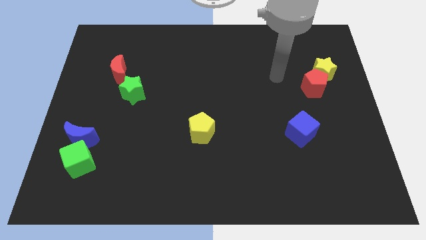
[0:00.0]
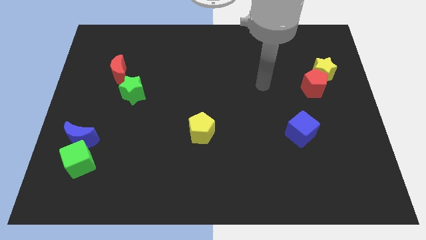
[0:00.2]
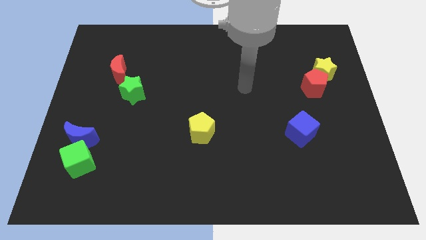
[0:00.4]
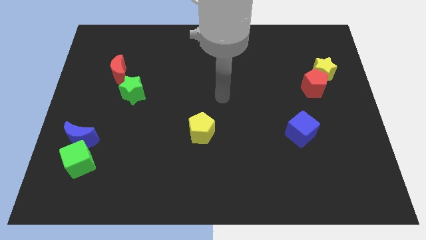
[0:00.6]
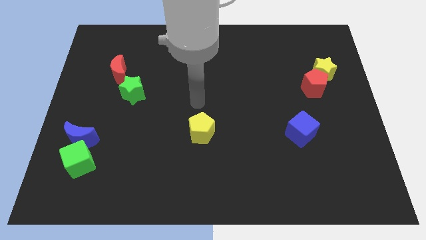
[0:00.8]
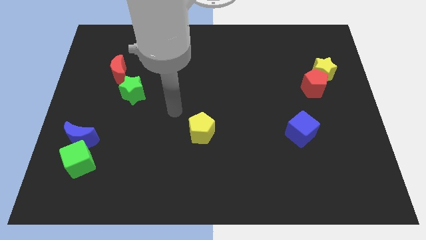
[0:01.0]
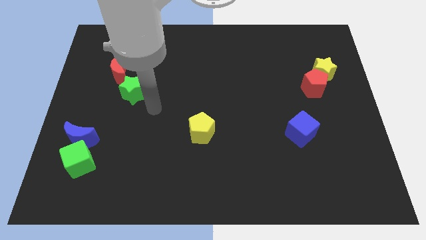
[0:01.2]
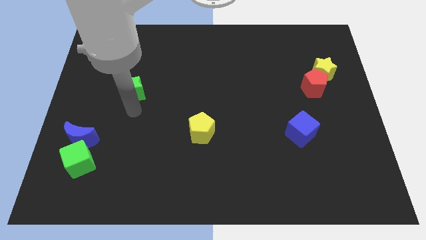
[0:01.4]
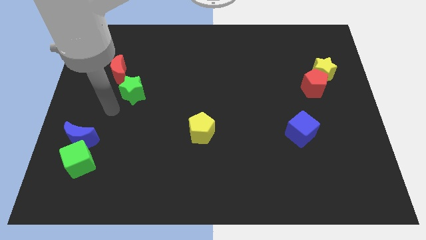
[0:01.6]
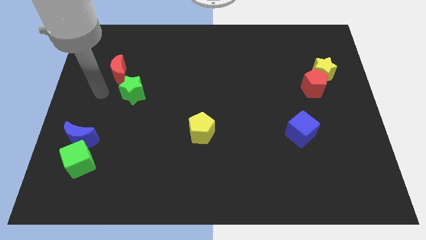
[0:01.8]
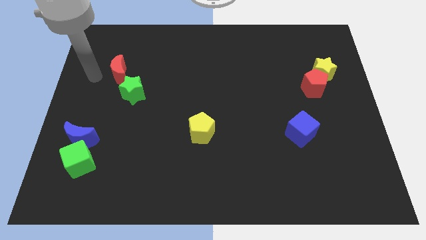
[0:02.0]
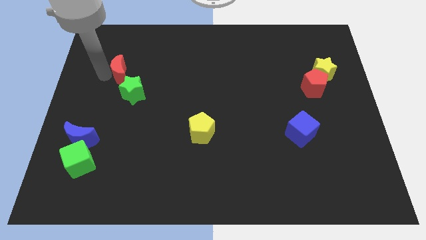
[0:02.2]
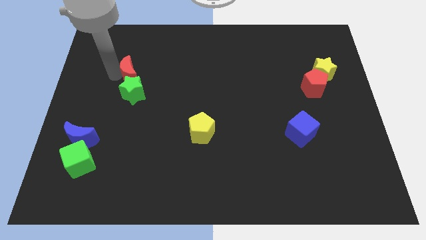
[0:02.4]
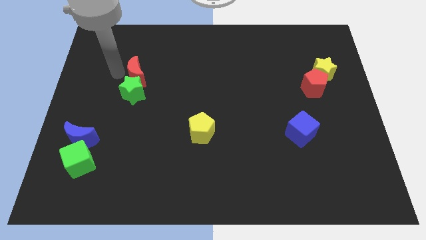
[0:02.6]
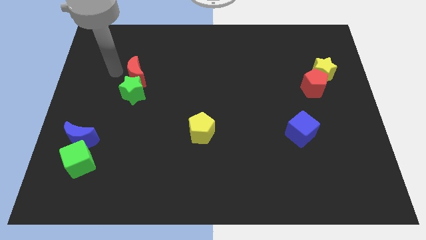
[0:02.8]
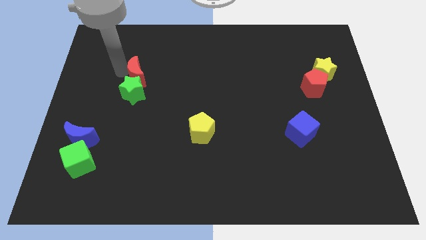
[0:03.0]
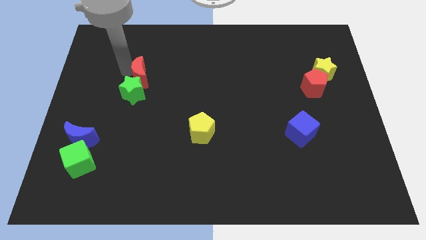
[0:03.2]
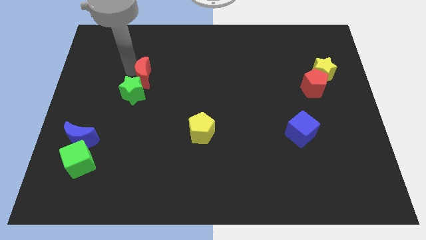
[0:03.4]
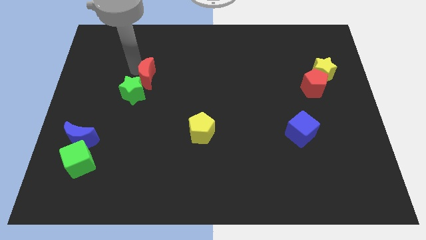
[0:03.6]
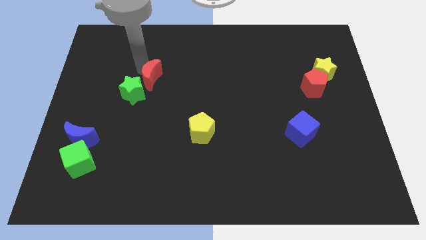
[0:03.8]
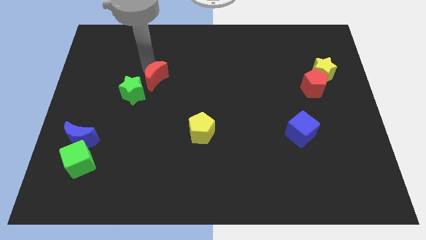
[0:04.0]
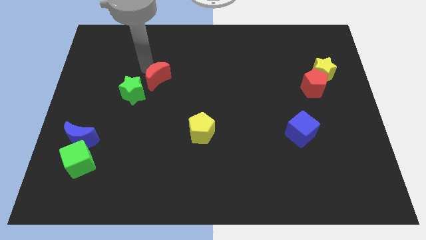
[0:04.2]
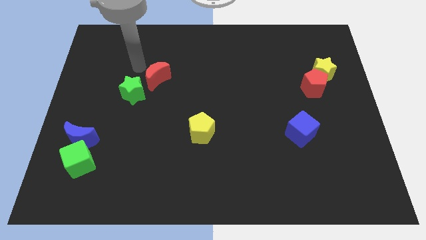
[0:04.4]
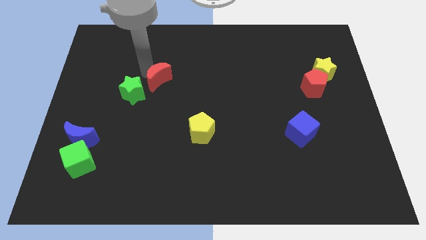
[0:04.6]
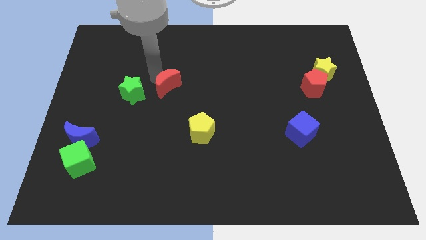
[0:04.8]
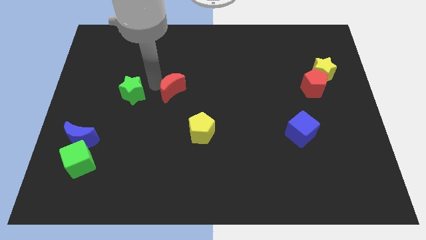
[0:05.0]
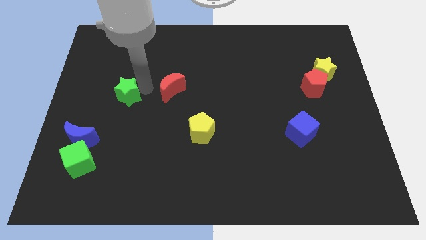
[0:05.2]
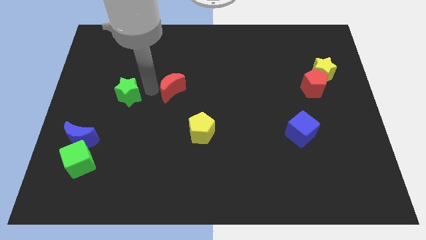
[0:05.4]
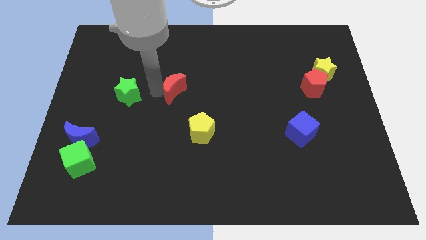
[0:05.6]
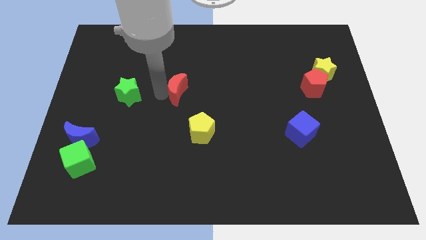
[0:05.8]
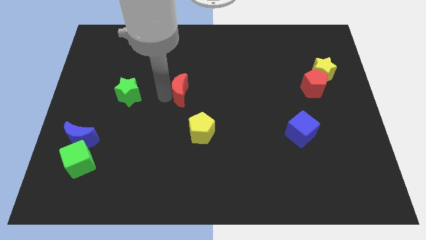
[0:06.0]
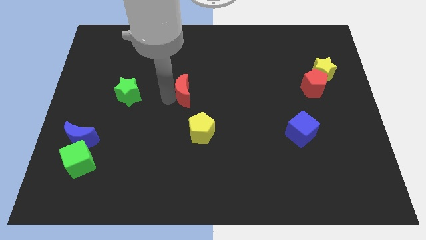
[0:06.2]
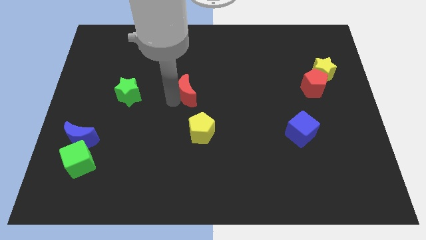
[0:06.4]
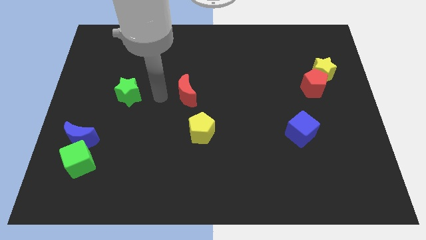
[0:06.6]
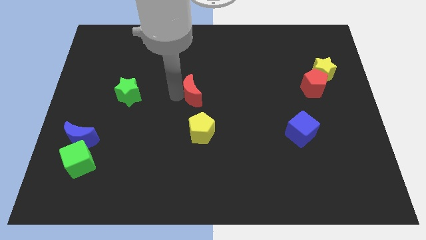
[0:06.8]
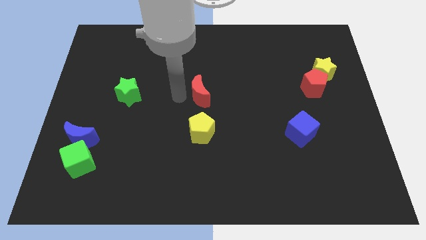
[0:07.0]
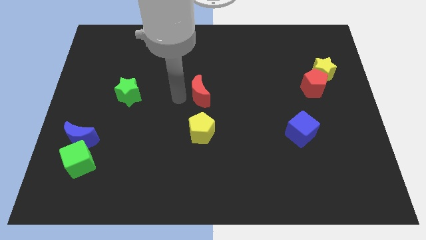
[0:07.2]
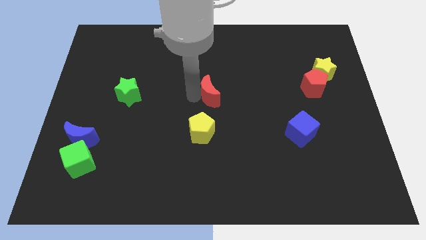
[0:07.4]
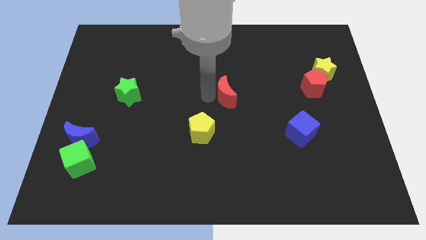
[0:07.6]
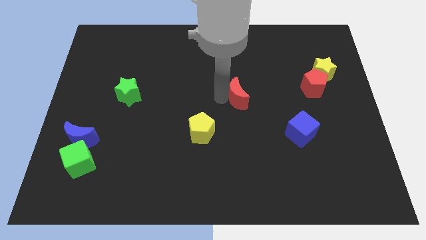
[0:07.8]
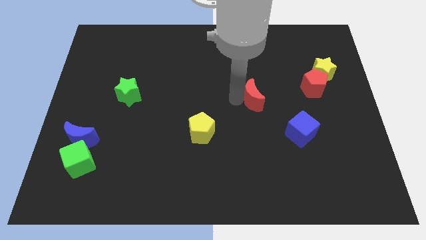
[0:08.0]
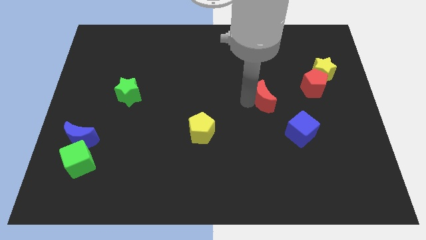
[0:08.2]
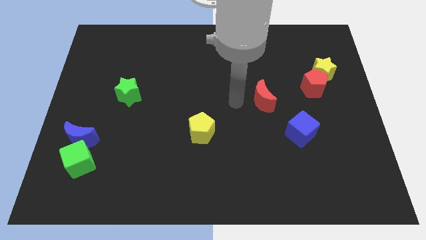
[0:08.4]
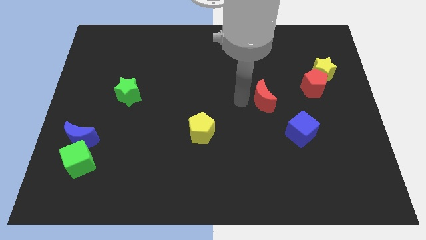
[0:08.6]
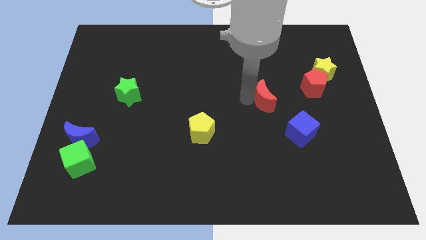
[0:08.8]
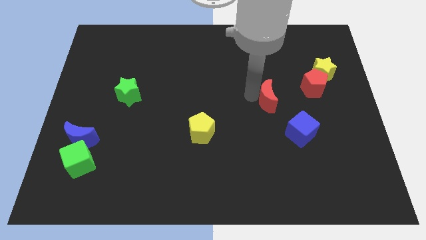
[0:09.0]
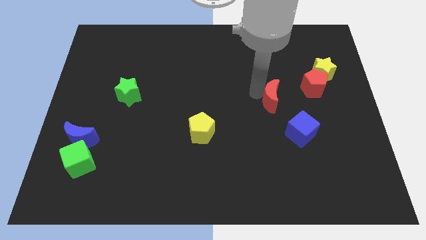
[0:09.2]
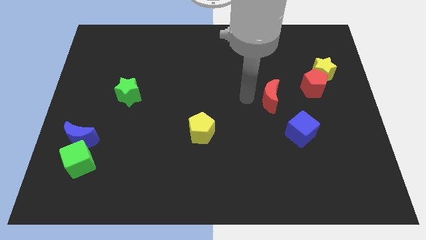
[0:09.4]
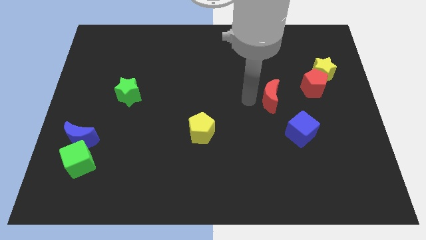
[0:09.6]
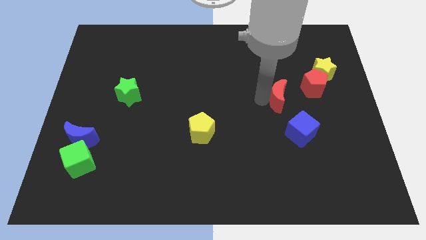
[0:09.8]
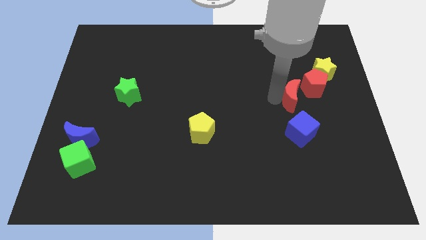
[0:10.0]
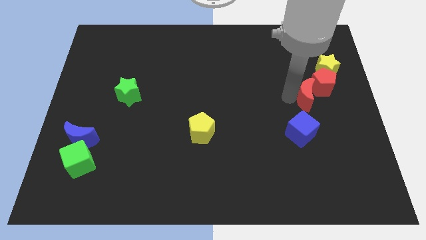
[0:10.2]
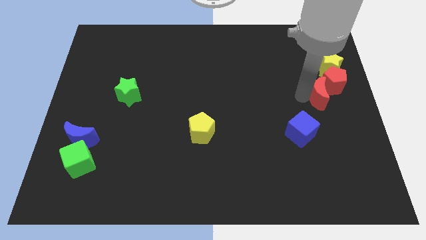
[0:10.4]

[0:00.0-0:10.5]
move the red moon to the right side of the board

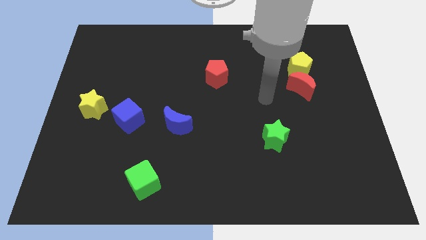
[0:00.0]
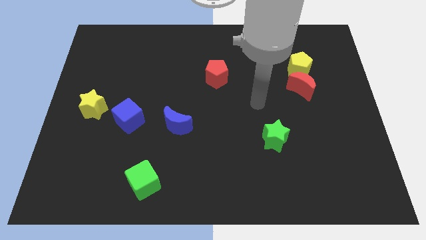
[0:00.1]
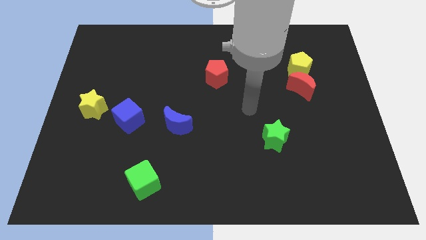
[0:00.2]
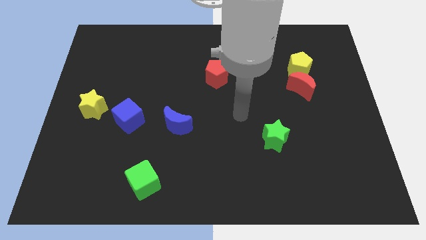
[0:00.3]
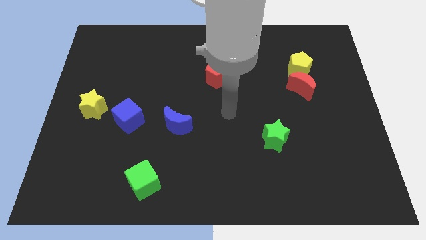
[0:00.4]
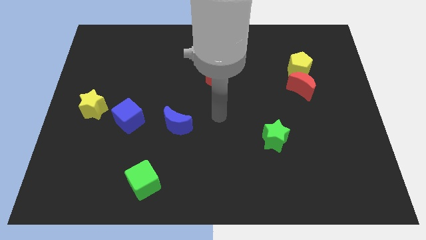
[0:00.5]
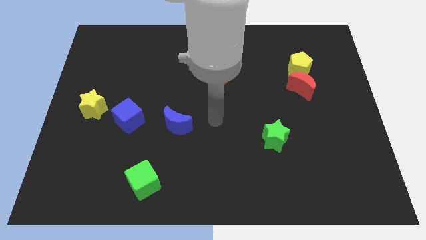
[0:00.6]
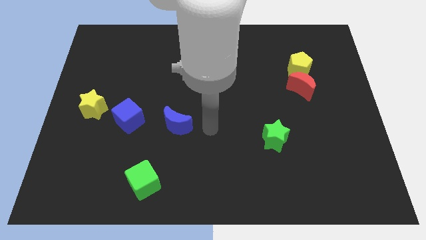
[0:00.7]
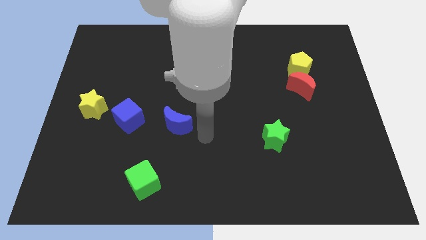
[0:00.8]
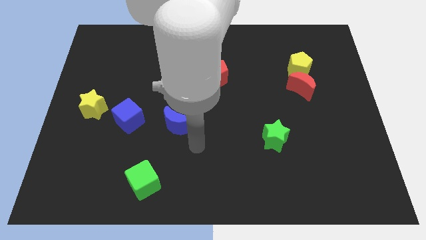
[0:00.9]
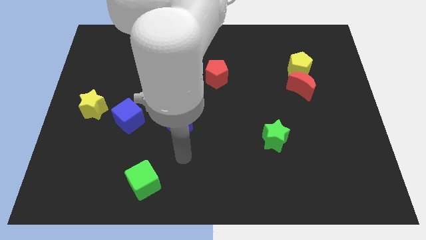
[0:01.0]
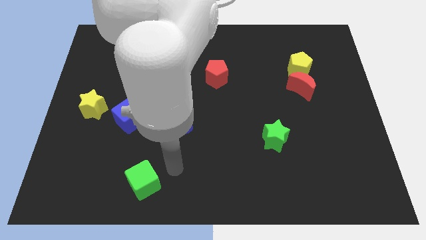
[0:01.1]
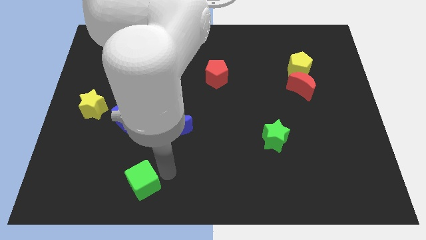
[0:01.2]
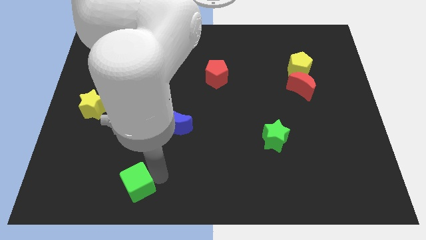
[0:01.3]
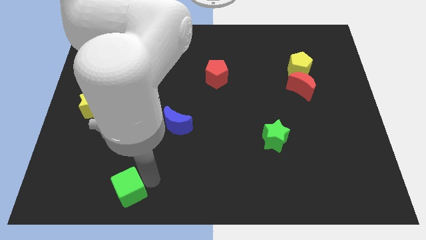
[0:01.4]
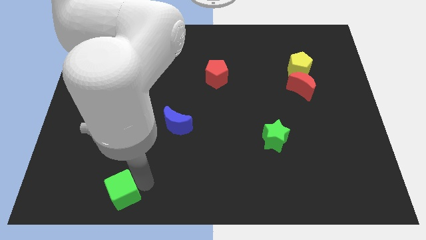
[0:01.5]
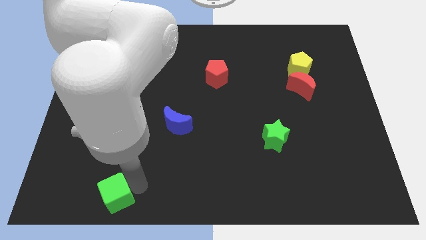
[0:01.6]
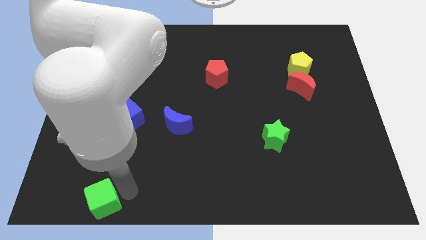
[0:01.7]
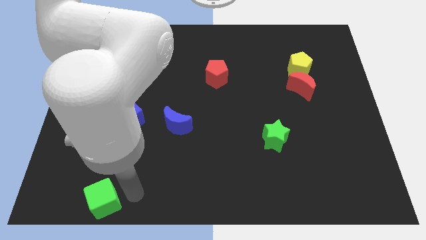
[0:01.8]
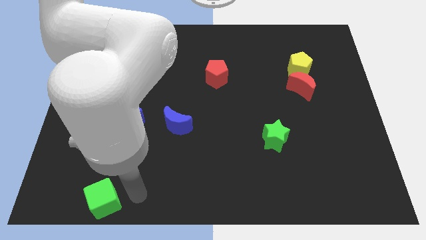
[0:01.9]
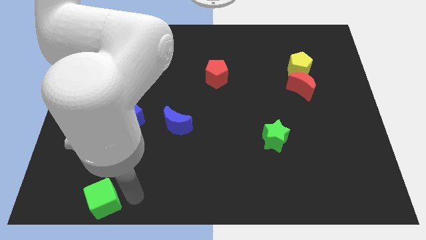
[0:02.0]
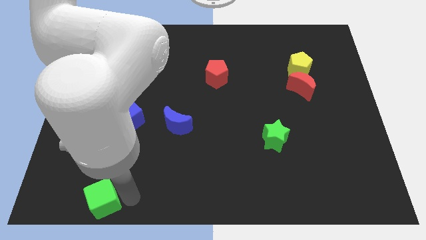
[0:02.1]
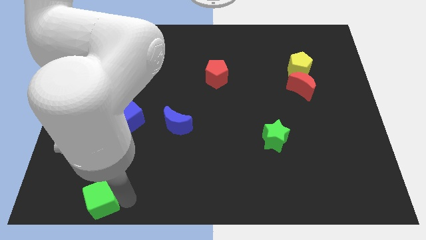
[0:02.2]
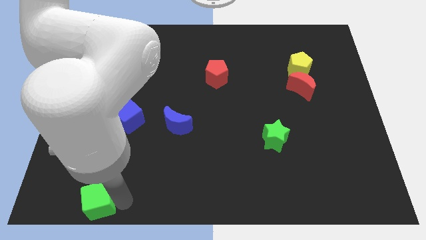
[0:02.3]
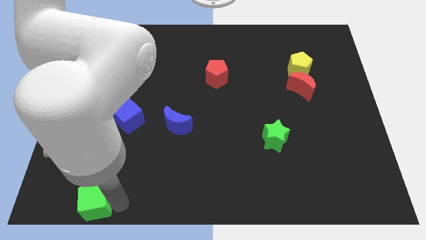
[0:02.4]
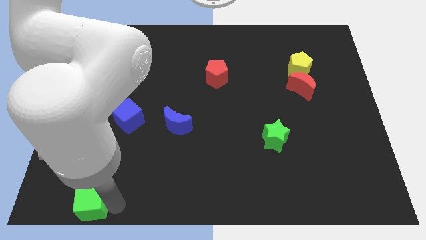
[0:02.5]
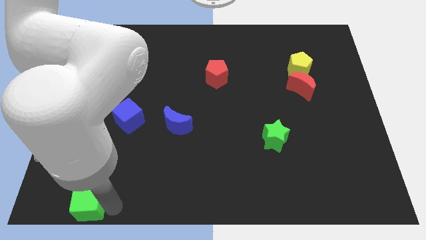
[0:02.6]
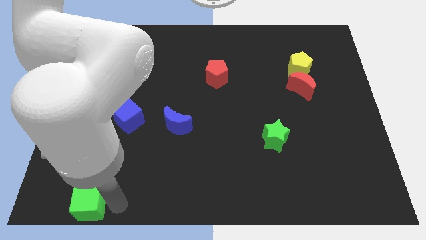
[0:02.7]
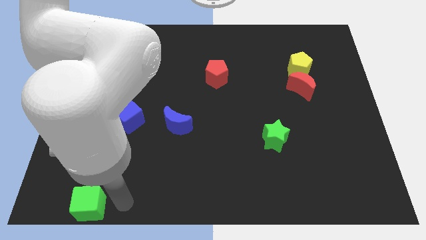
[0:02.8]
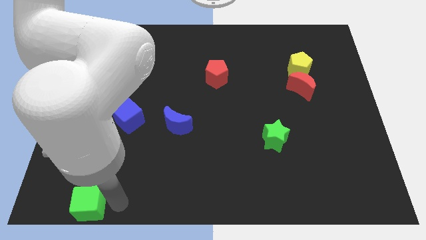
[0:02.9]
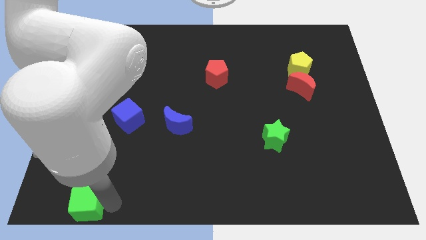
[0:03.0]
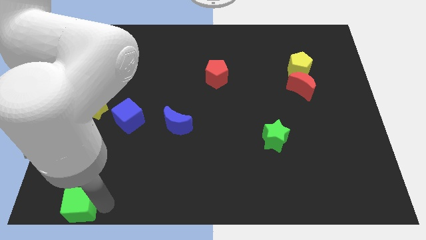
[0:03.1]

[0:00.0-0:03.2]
put the green cube to the bottom left corner
